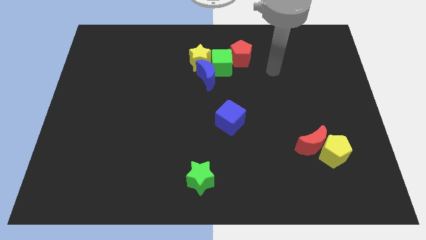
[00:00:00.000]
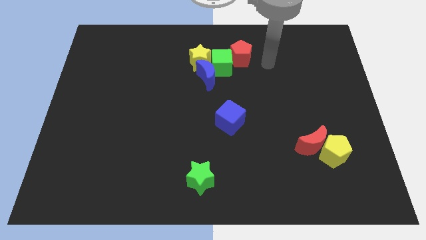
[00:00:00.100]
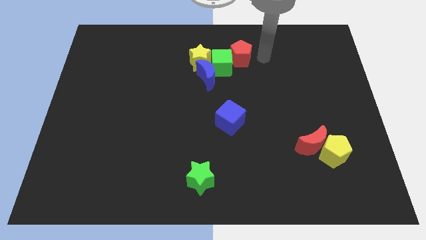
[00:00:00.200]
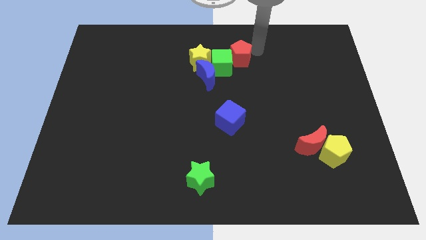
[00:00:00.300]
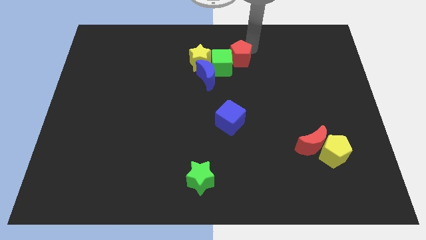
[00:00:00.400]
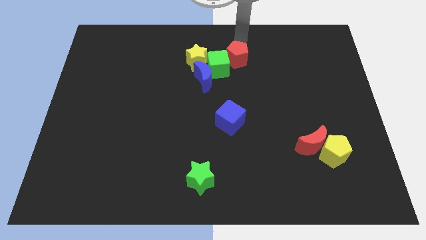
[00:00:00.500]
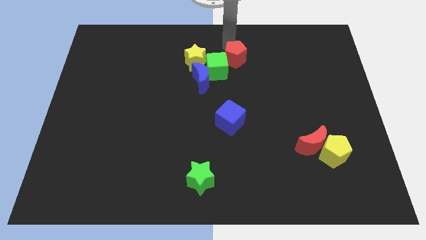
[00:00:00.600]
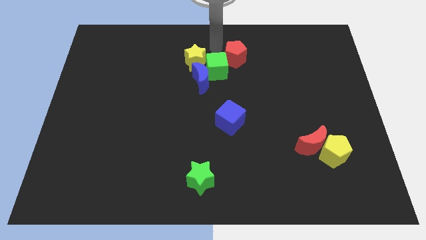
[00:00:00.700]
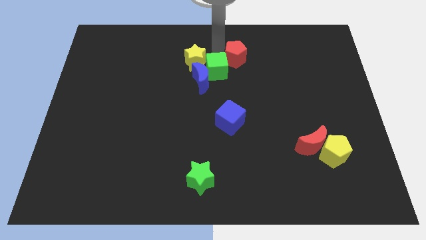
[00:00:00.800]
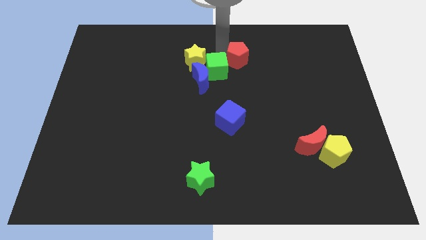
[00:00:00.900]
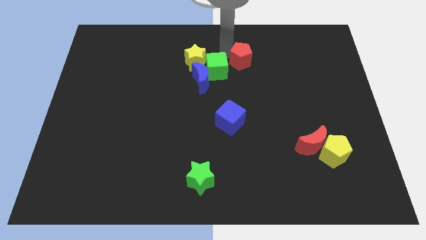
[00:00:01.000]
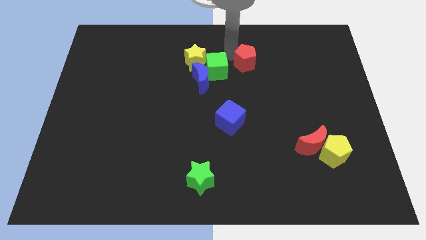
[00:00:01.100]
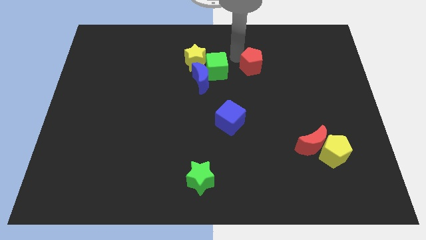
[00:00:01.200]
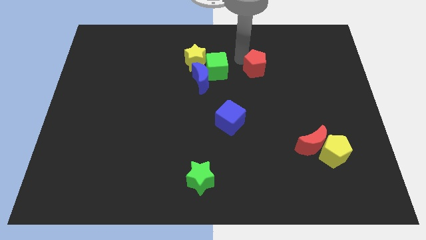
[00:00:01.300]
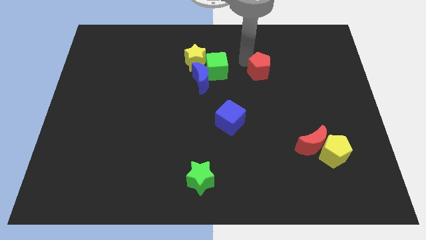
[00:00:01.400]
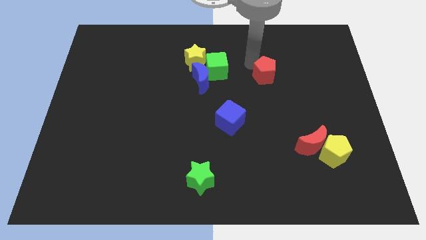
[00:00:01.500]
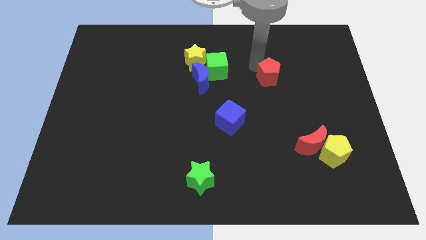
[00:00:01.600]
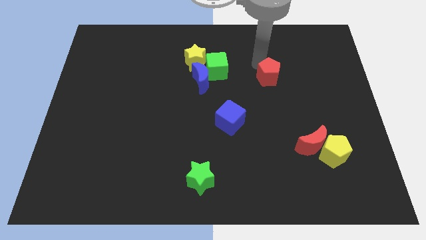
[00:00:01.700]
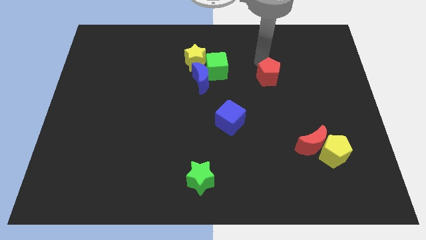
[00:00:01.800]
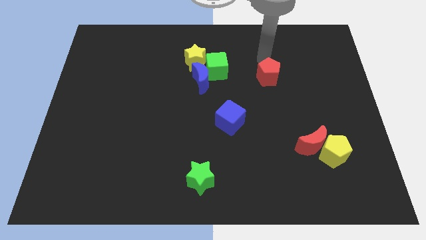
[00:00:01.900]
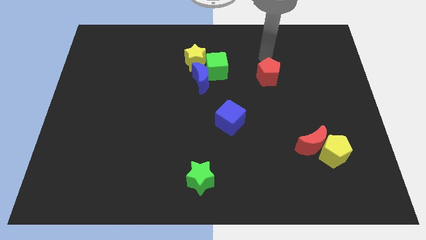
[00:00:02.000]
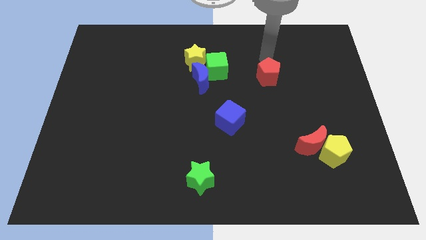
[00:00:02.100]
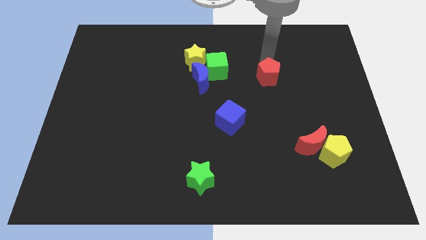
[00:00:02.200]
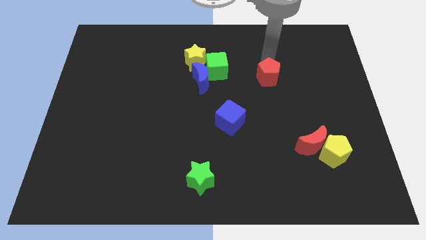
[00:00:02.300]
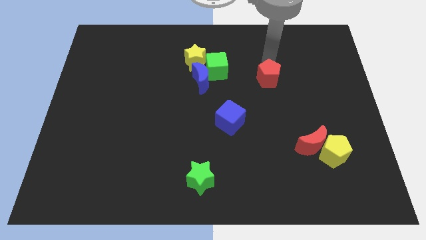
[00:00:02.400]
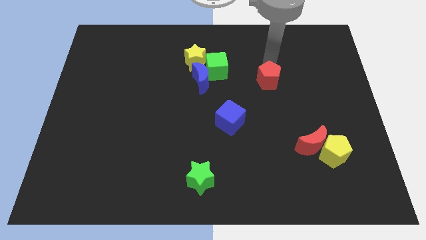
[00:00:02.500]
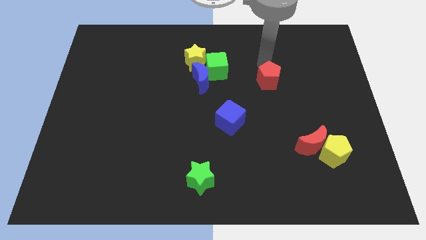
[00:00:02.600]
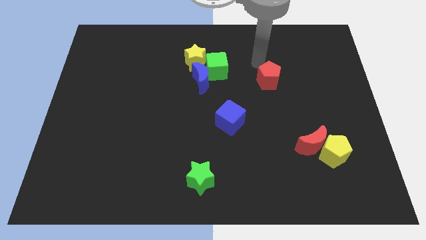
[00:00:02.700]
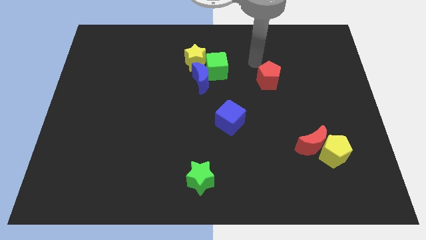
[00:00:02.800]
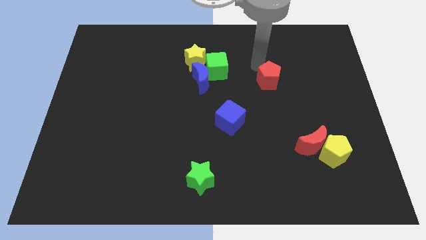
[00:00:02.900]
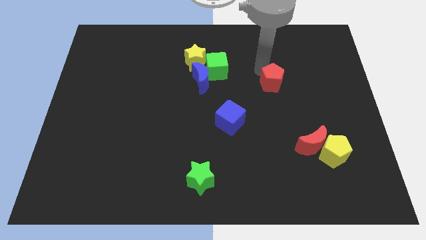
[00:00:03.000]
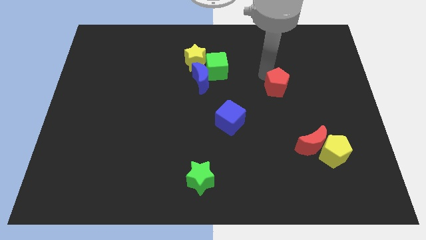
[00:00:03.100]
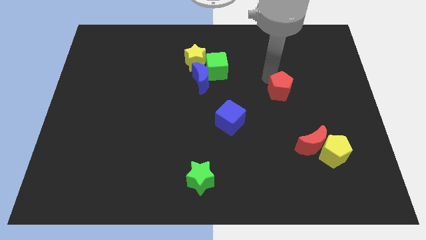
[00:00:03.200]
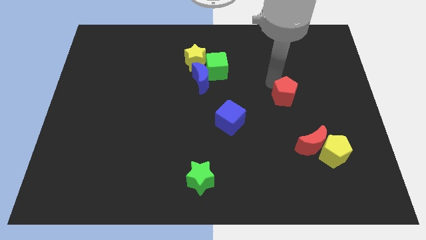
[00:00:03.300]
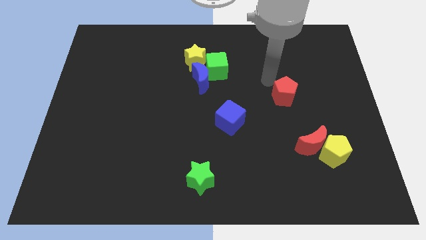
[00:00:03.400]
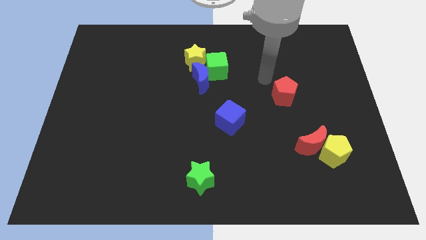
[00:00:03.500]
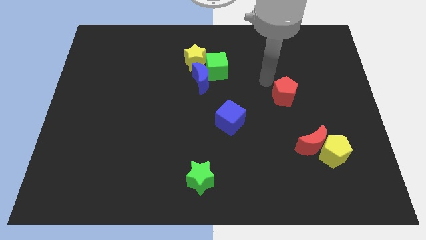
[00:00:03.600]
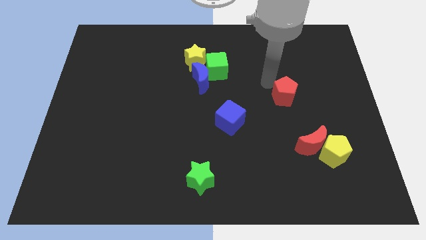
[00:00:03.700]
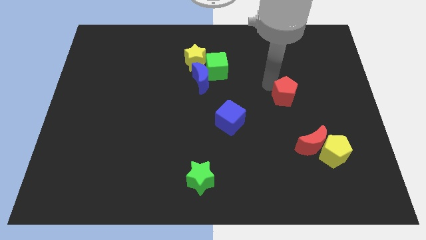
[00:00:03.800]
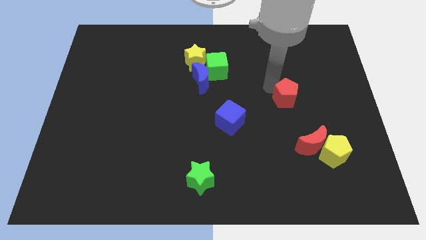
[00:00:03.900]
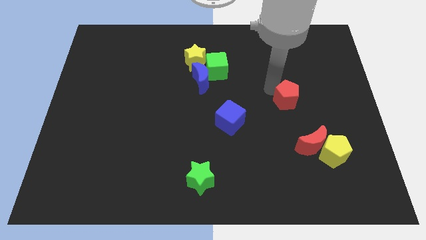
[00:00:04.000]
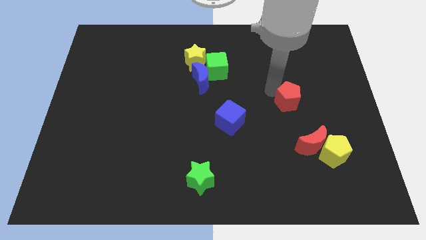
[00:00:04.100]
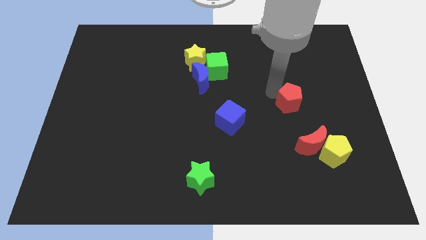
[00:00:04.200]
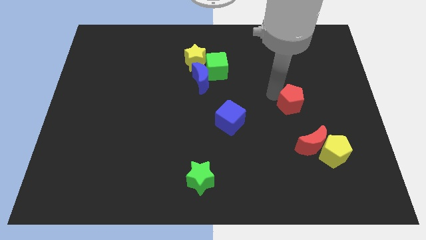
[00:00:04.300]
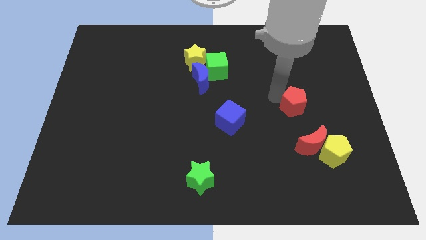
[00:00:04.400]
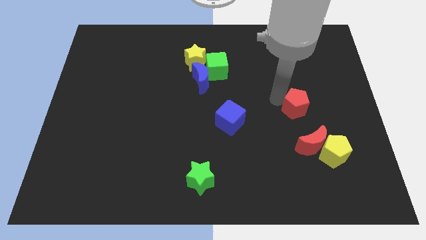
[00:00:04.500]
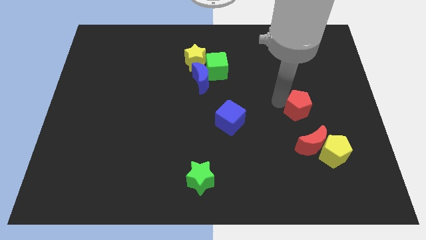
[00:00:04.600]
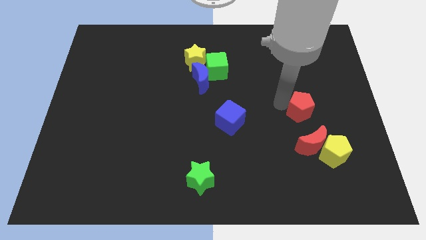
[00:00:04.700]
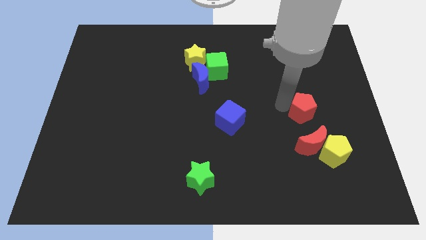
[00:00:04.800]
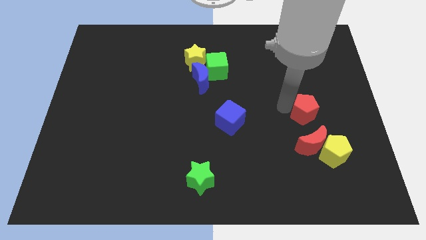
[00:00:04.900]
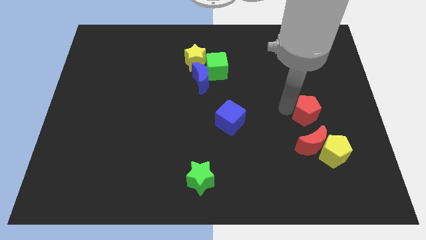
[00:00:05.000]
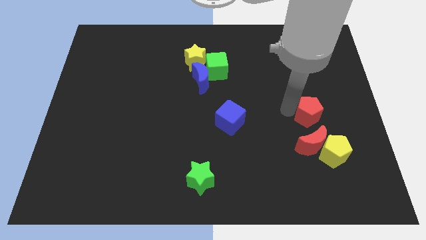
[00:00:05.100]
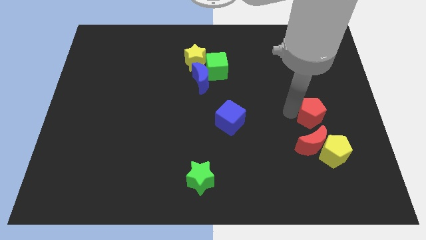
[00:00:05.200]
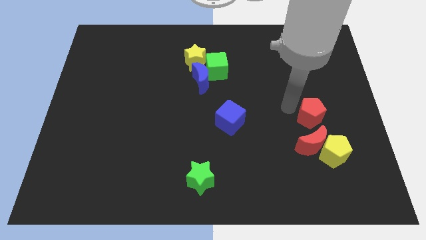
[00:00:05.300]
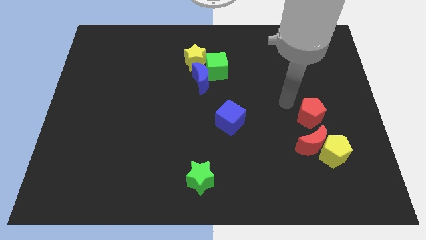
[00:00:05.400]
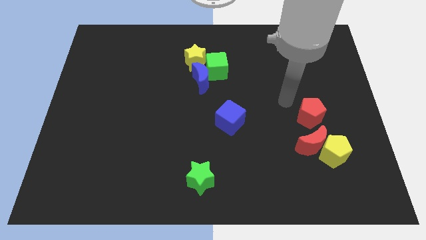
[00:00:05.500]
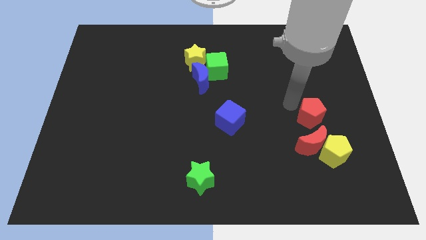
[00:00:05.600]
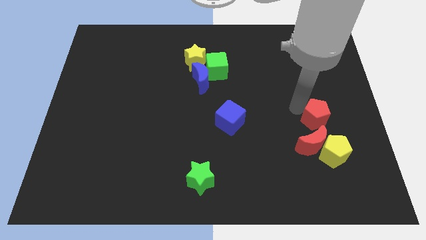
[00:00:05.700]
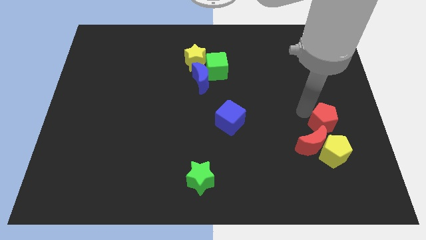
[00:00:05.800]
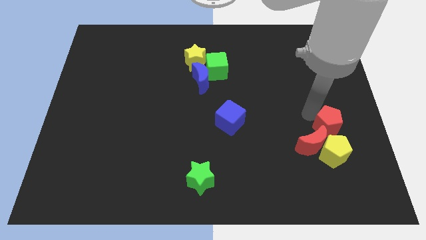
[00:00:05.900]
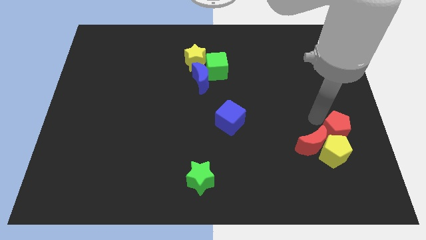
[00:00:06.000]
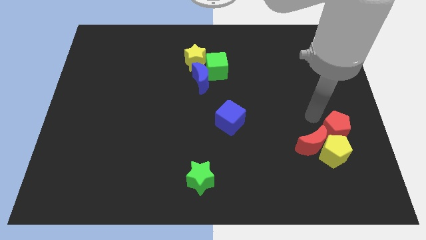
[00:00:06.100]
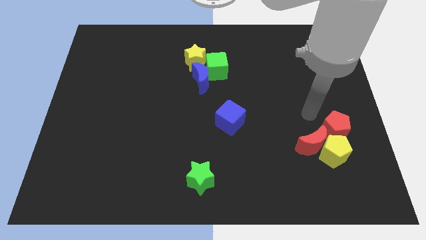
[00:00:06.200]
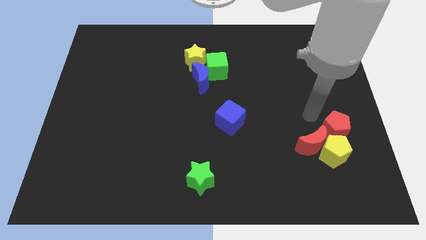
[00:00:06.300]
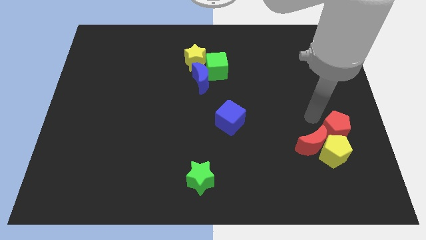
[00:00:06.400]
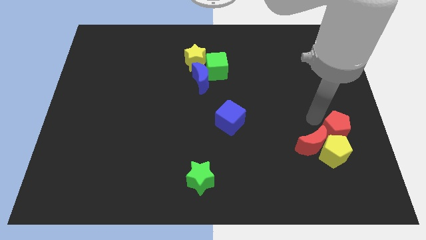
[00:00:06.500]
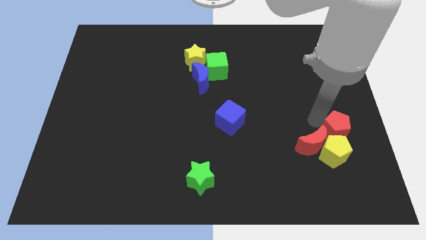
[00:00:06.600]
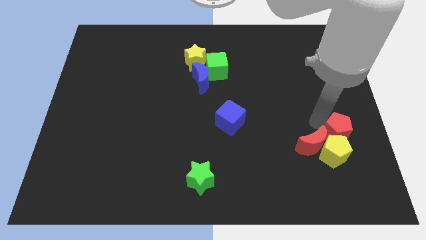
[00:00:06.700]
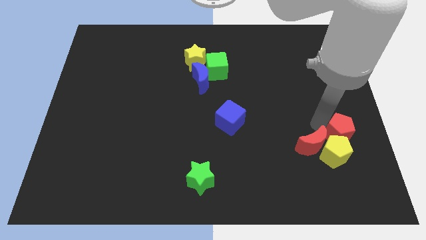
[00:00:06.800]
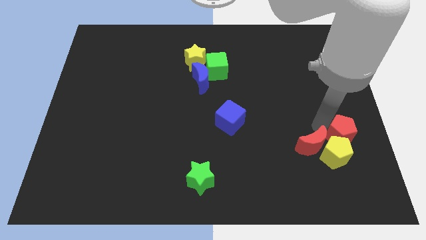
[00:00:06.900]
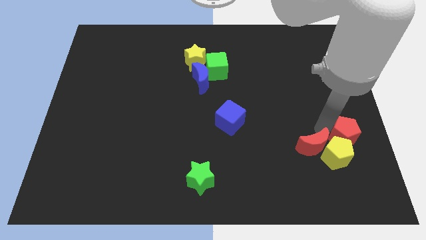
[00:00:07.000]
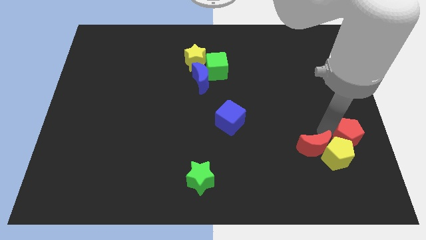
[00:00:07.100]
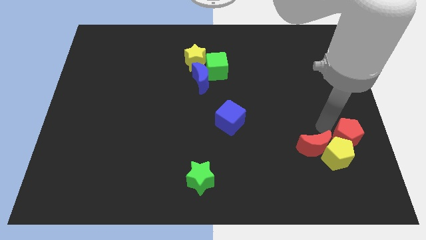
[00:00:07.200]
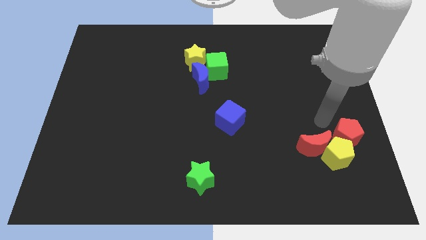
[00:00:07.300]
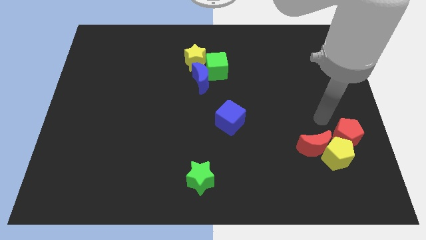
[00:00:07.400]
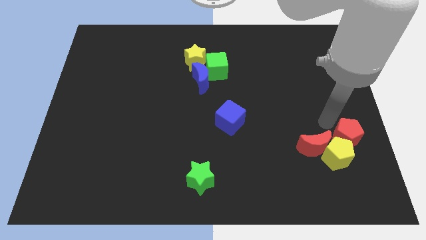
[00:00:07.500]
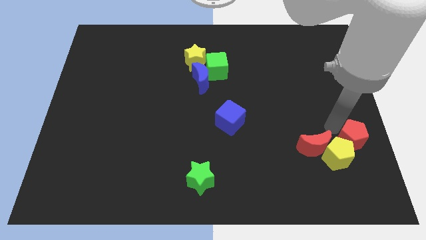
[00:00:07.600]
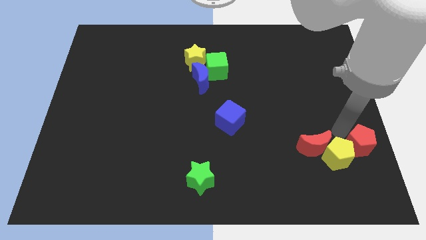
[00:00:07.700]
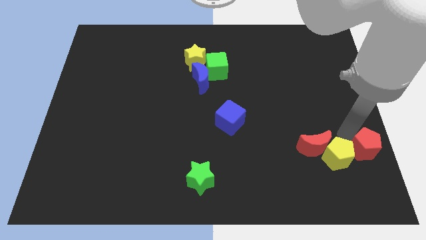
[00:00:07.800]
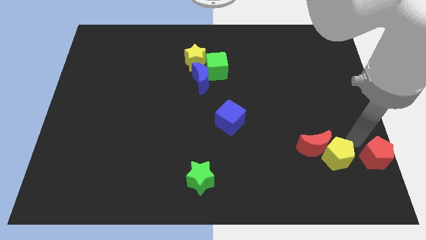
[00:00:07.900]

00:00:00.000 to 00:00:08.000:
push the red pentagon to the bottom right corner

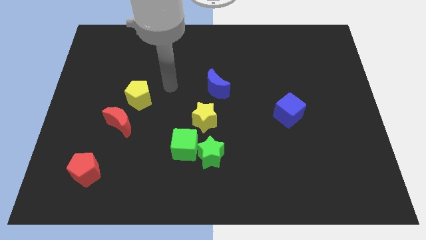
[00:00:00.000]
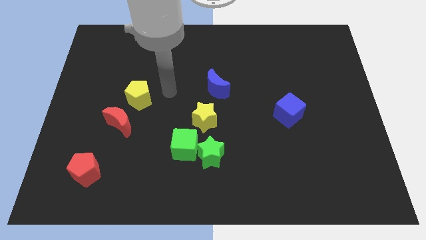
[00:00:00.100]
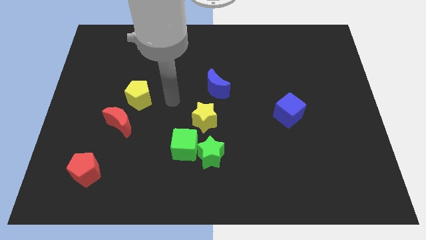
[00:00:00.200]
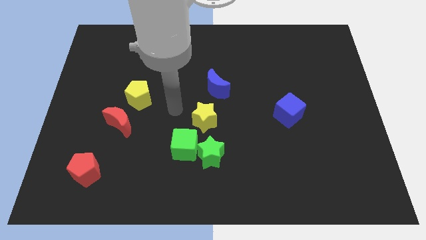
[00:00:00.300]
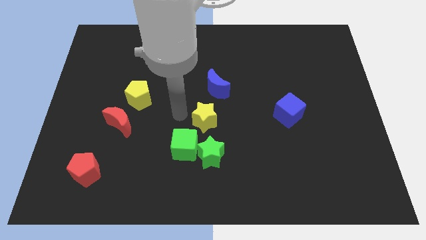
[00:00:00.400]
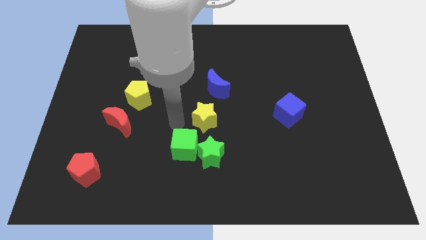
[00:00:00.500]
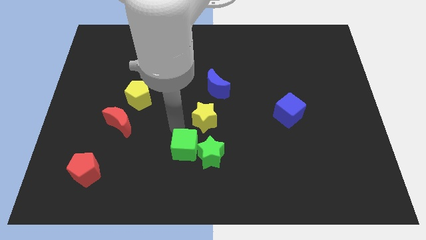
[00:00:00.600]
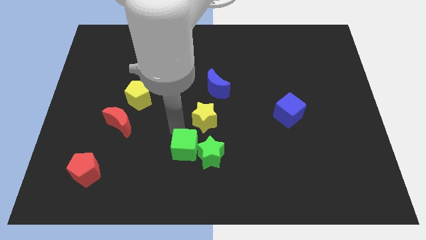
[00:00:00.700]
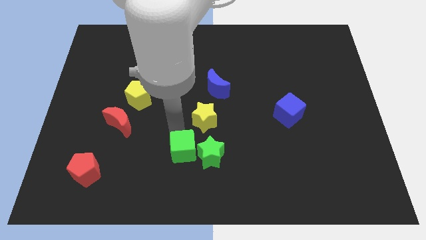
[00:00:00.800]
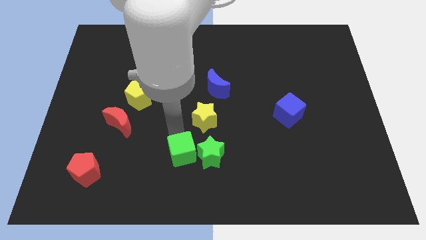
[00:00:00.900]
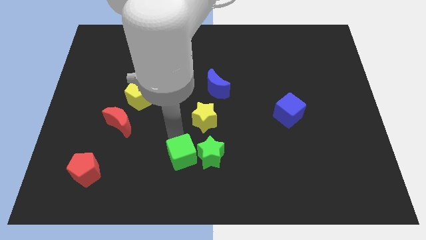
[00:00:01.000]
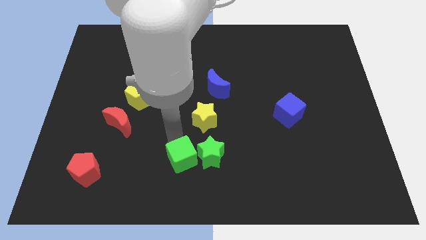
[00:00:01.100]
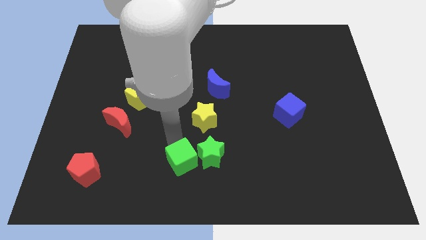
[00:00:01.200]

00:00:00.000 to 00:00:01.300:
put the green cube to the bottom
